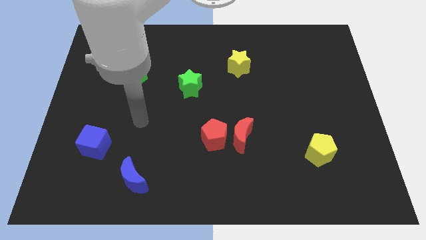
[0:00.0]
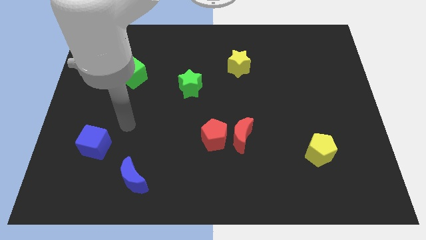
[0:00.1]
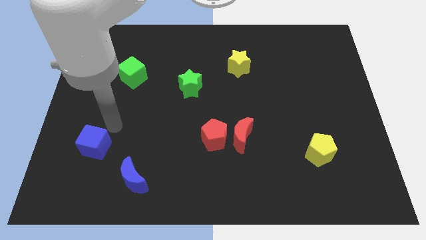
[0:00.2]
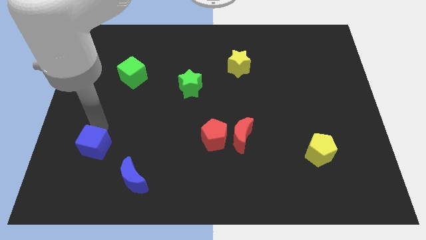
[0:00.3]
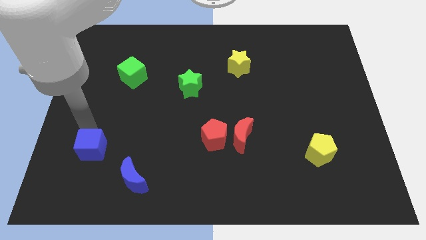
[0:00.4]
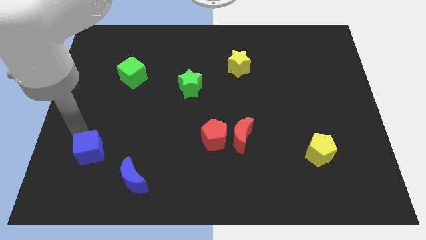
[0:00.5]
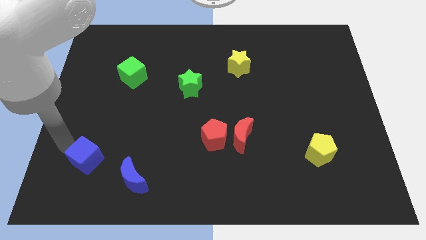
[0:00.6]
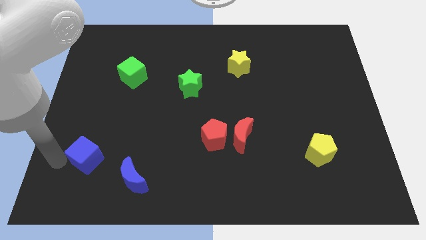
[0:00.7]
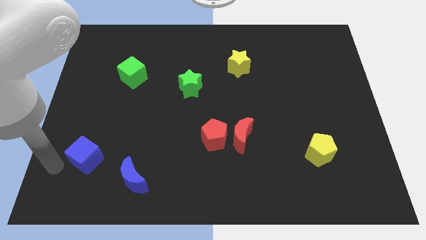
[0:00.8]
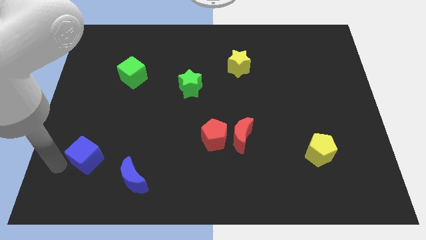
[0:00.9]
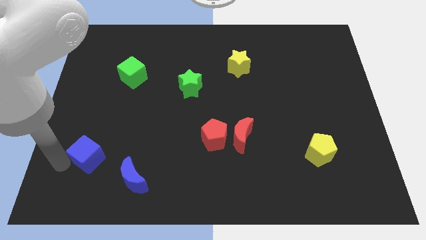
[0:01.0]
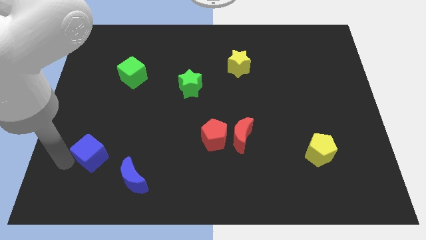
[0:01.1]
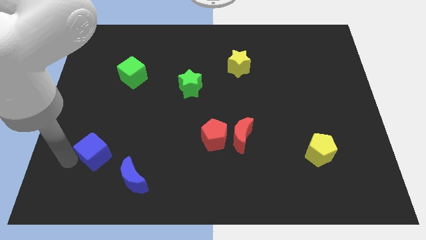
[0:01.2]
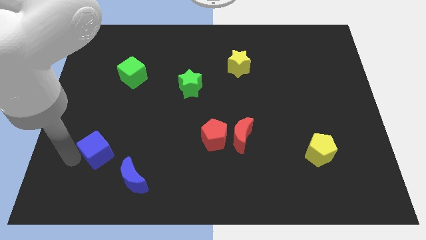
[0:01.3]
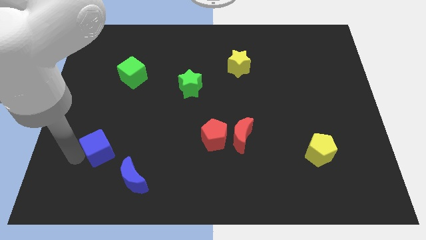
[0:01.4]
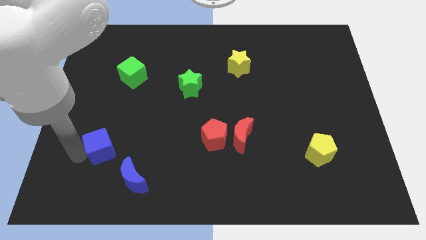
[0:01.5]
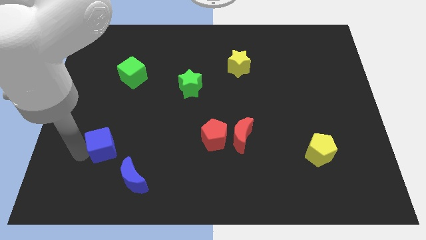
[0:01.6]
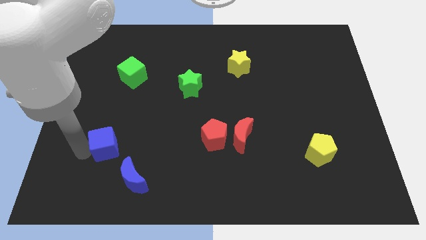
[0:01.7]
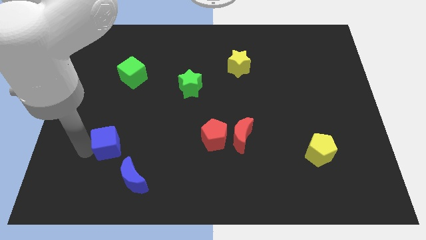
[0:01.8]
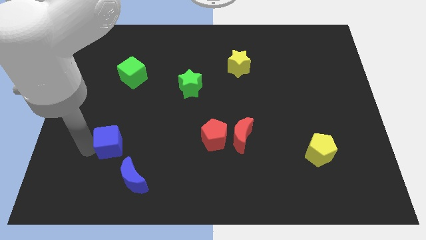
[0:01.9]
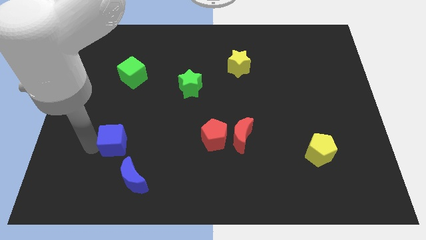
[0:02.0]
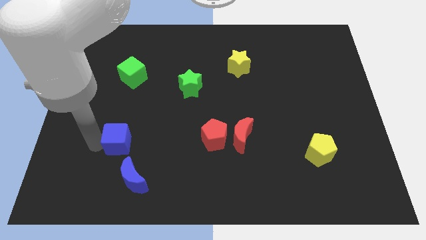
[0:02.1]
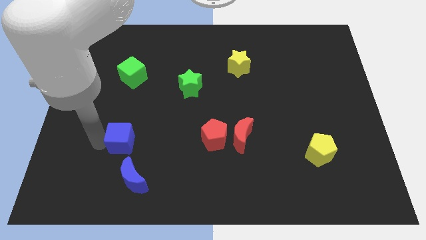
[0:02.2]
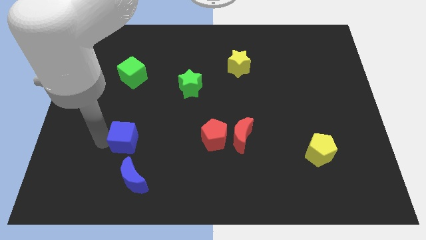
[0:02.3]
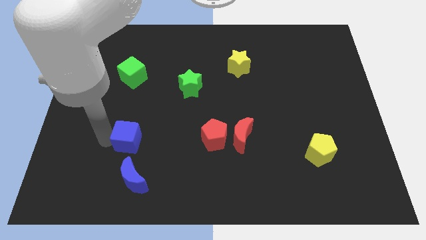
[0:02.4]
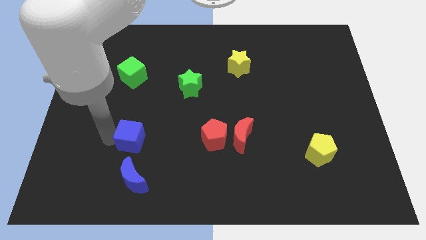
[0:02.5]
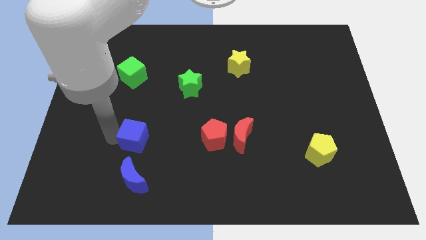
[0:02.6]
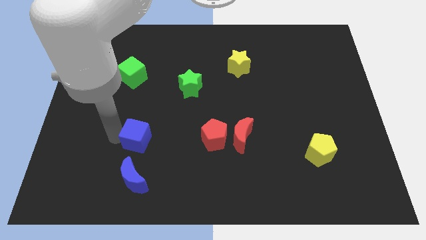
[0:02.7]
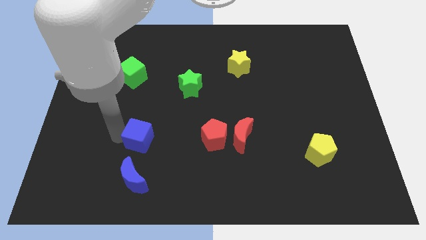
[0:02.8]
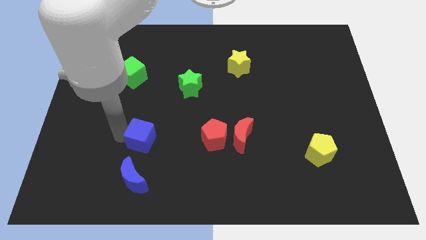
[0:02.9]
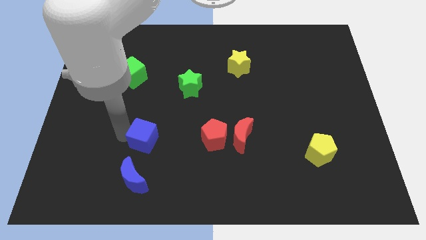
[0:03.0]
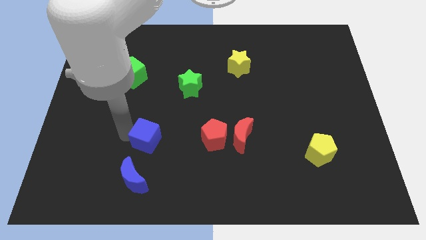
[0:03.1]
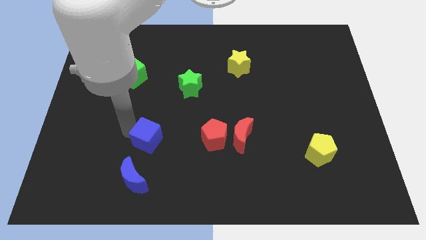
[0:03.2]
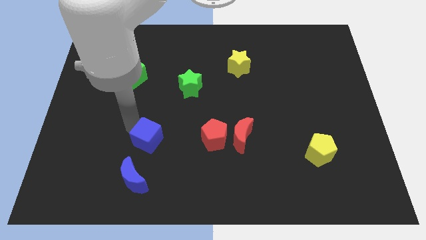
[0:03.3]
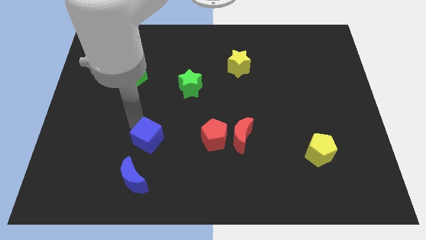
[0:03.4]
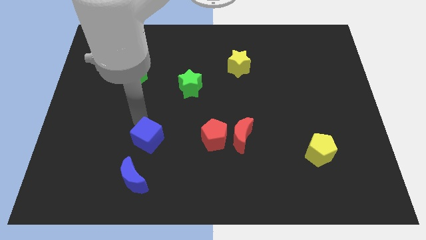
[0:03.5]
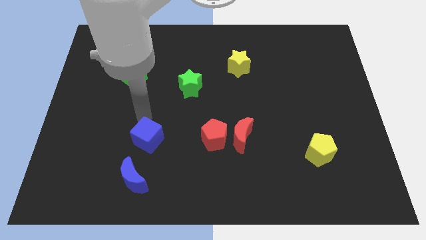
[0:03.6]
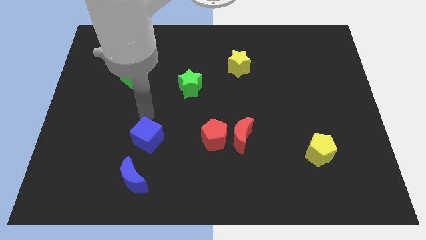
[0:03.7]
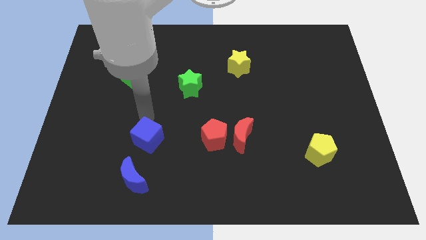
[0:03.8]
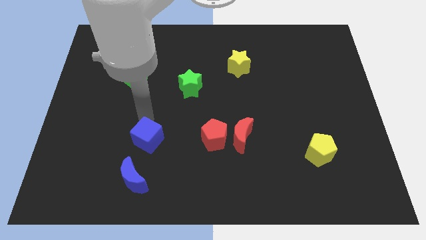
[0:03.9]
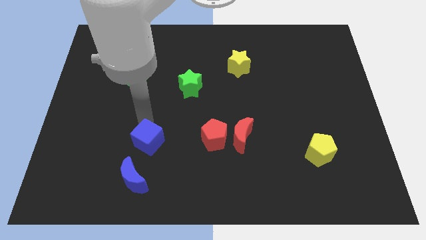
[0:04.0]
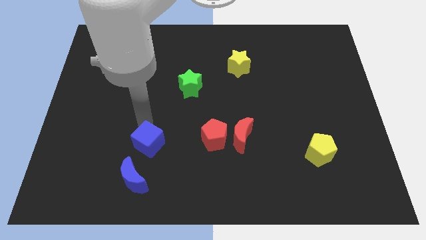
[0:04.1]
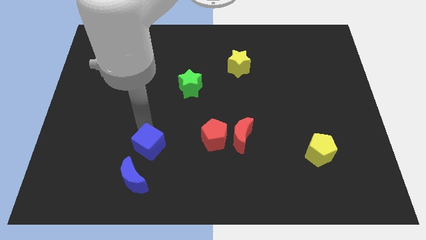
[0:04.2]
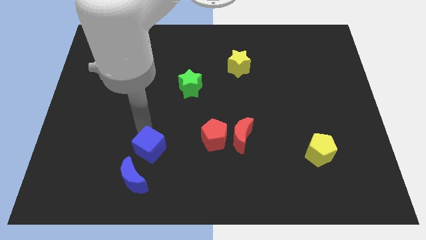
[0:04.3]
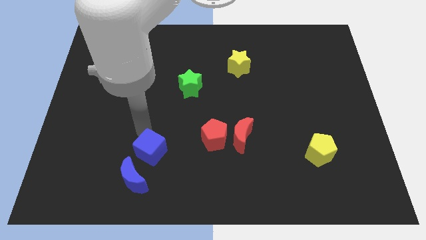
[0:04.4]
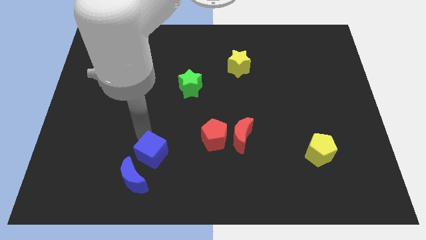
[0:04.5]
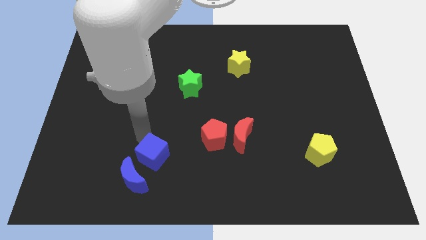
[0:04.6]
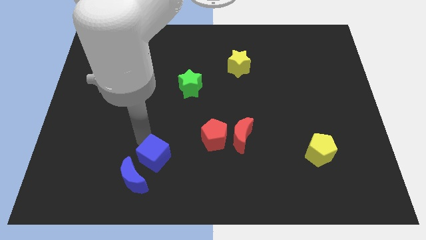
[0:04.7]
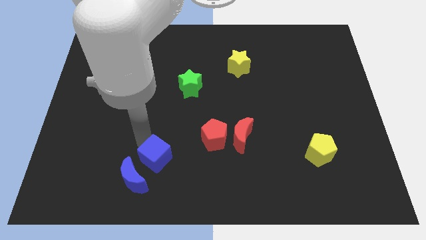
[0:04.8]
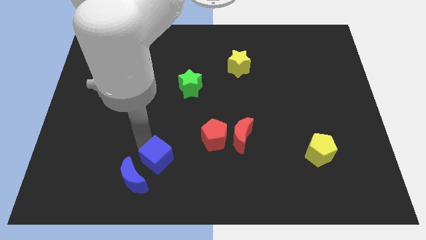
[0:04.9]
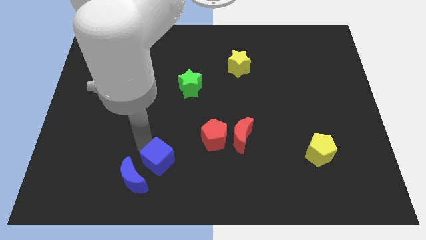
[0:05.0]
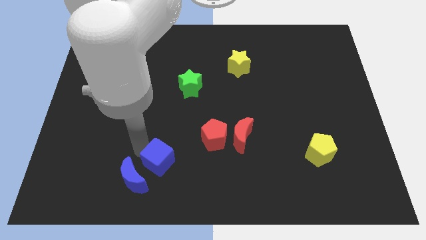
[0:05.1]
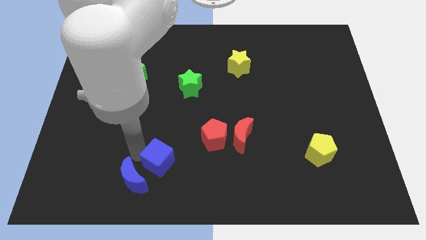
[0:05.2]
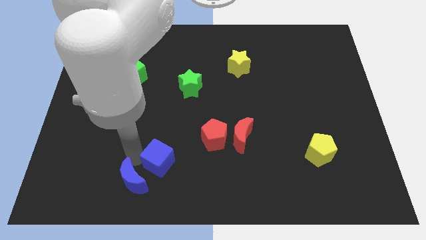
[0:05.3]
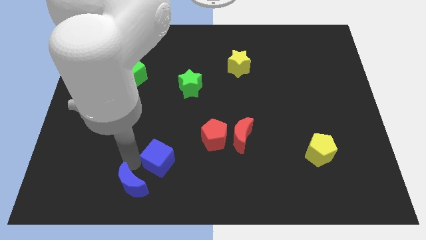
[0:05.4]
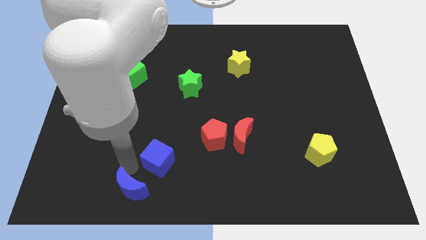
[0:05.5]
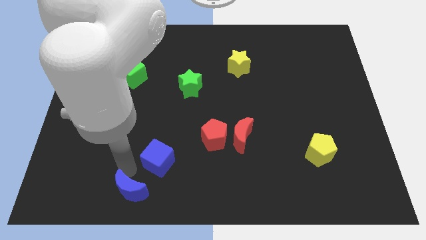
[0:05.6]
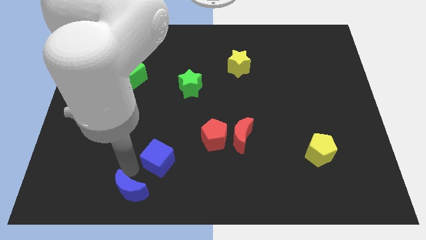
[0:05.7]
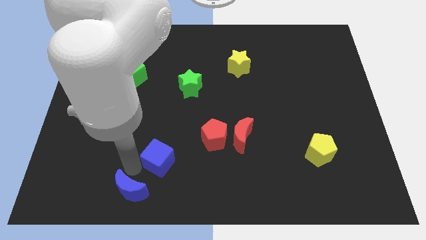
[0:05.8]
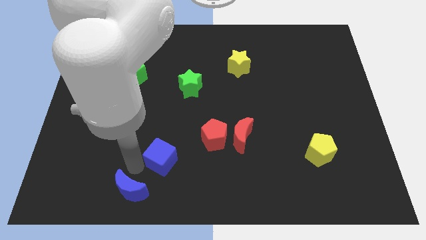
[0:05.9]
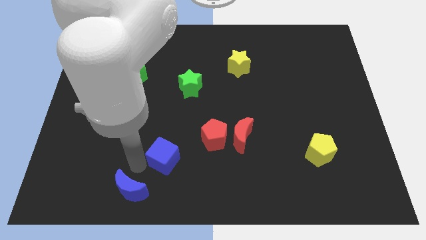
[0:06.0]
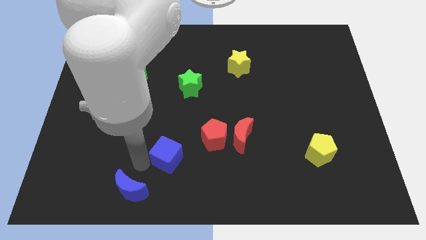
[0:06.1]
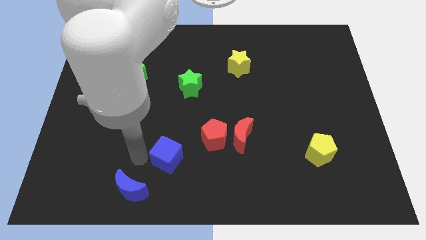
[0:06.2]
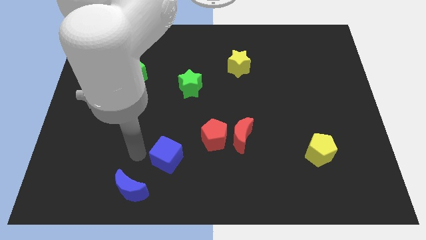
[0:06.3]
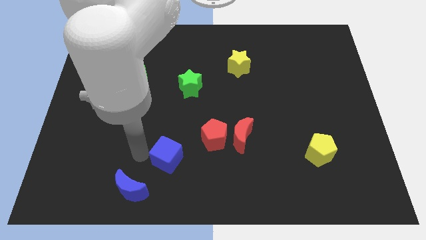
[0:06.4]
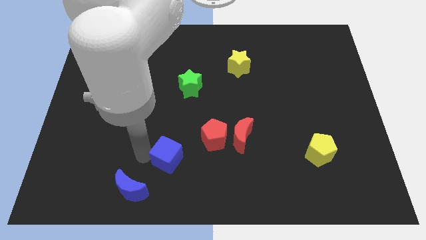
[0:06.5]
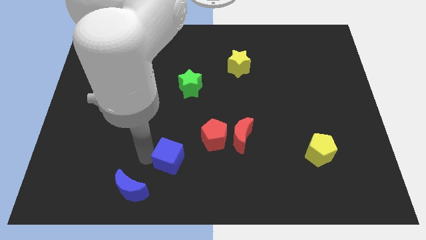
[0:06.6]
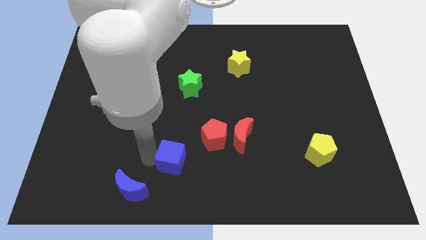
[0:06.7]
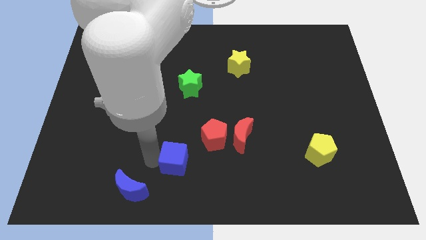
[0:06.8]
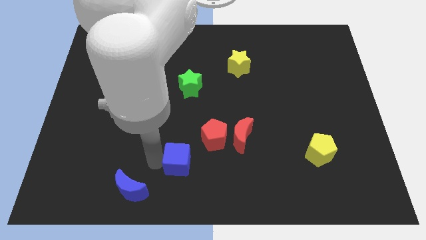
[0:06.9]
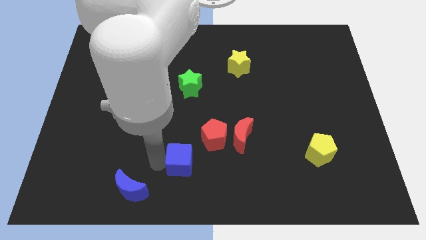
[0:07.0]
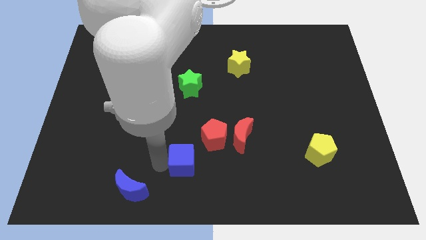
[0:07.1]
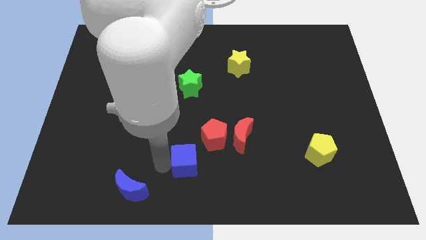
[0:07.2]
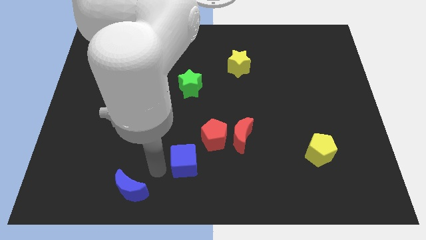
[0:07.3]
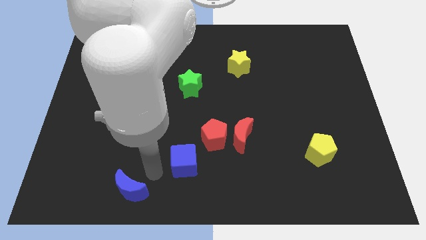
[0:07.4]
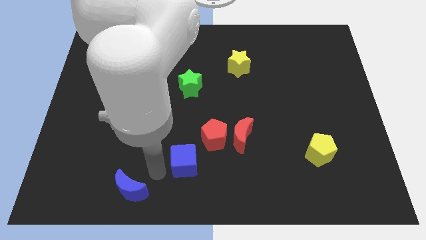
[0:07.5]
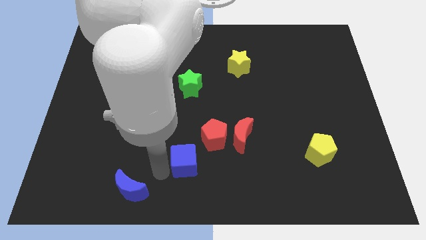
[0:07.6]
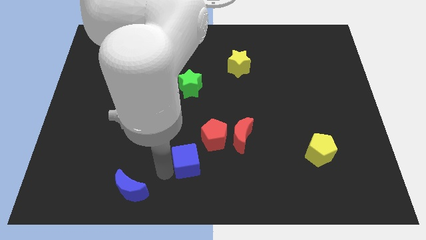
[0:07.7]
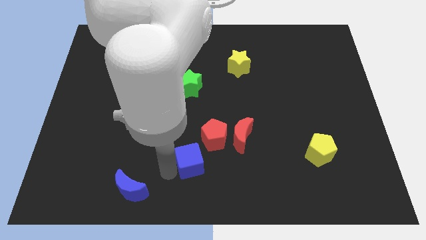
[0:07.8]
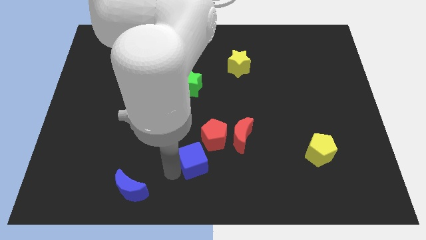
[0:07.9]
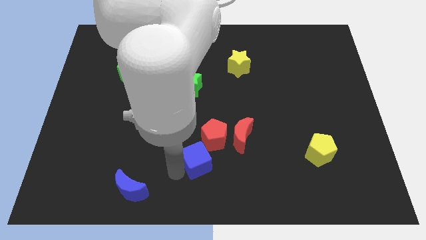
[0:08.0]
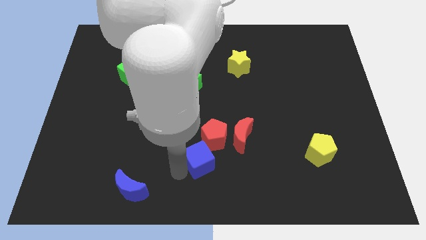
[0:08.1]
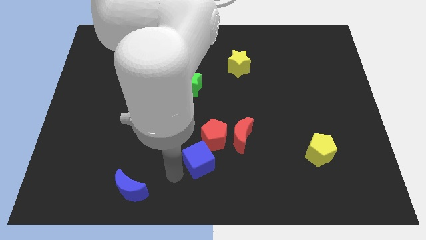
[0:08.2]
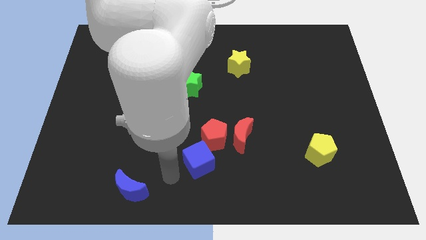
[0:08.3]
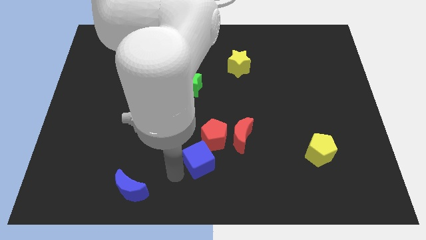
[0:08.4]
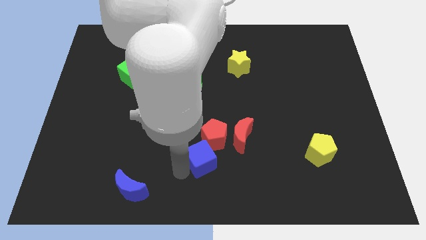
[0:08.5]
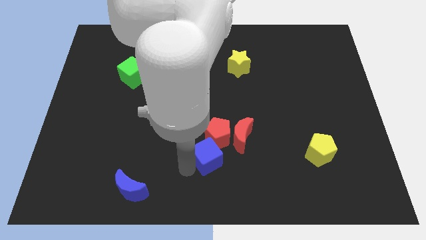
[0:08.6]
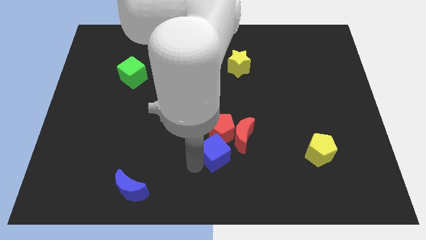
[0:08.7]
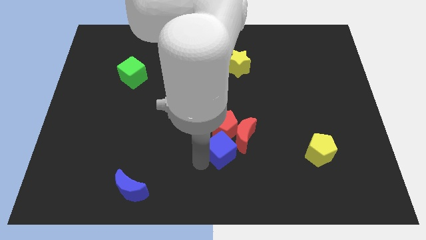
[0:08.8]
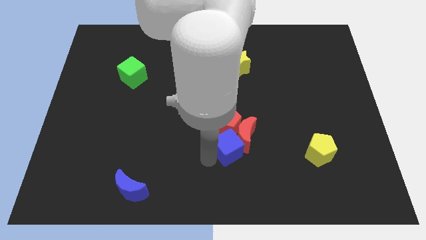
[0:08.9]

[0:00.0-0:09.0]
put the blue cube to the red moon
